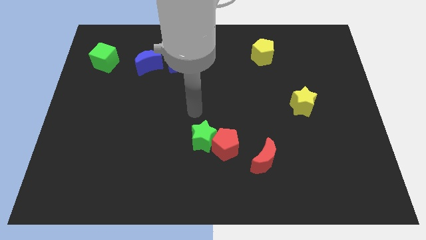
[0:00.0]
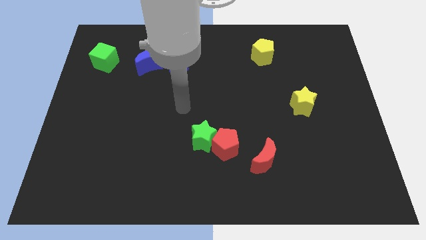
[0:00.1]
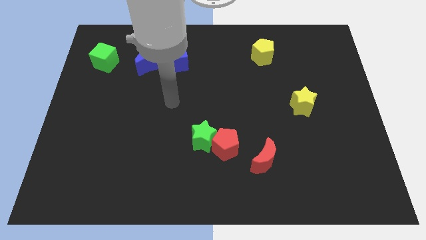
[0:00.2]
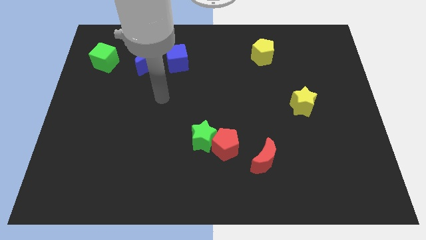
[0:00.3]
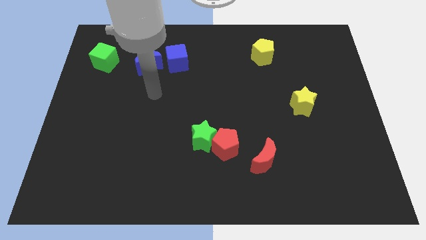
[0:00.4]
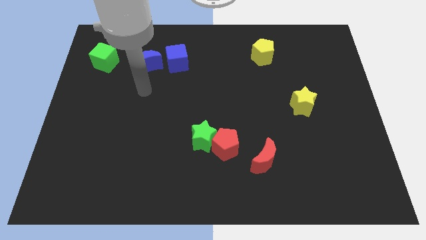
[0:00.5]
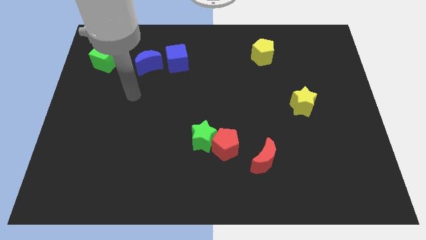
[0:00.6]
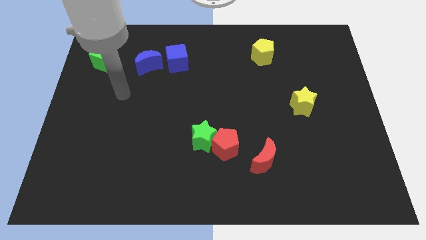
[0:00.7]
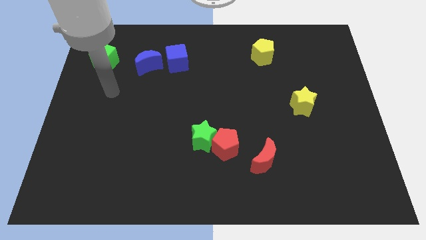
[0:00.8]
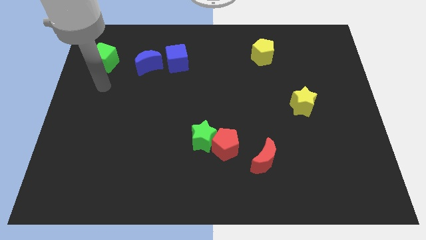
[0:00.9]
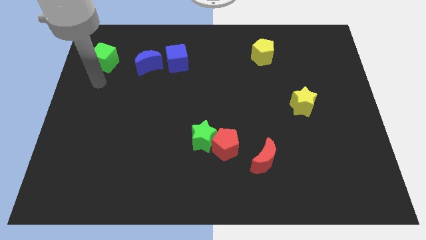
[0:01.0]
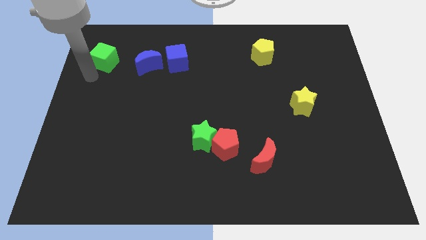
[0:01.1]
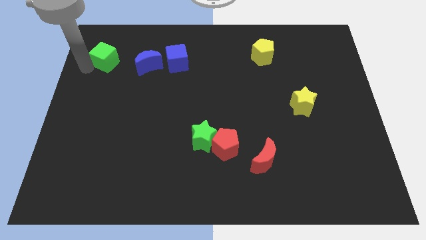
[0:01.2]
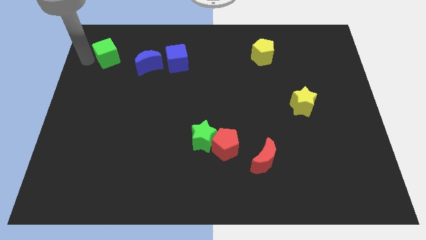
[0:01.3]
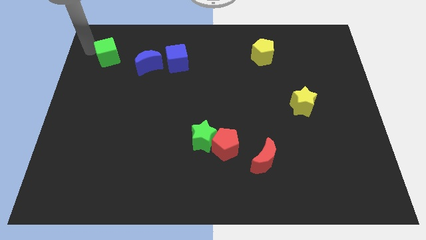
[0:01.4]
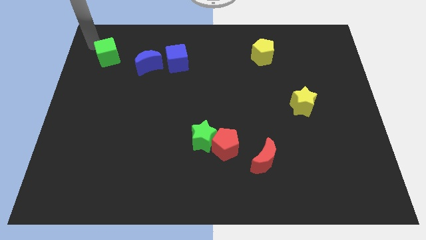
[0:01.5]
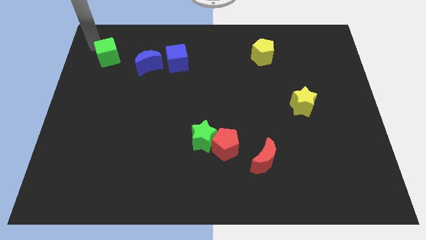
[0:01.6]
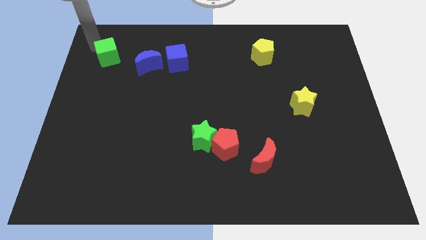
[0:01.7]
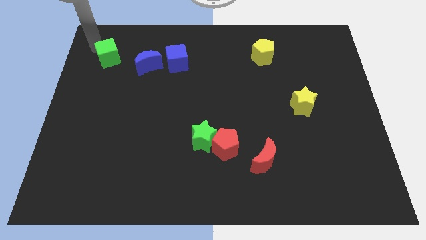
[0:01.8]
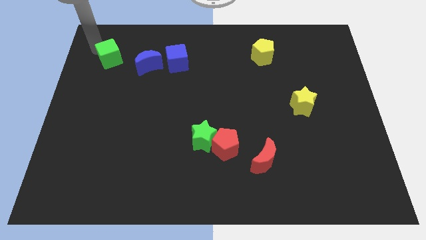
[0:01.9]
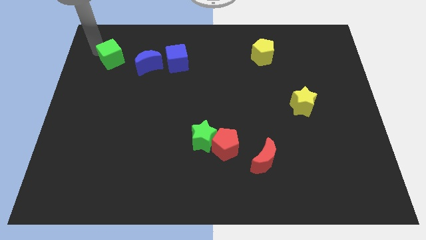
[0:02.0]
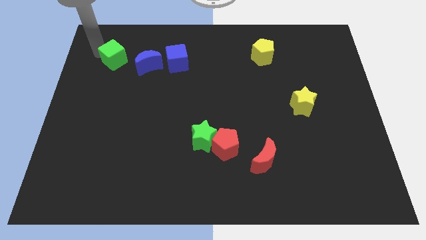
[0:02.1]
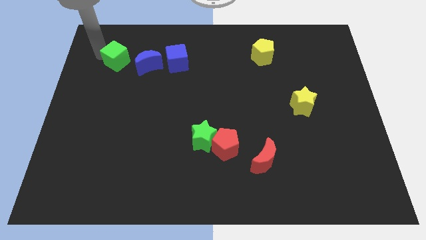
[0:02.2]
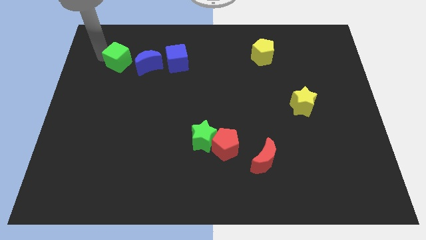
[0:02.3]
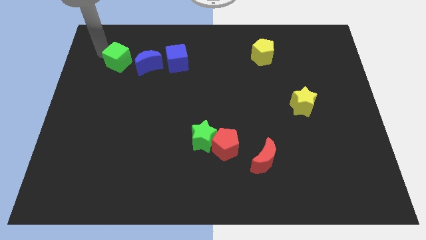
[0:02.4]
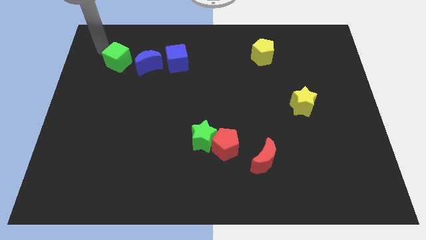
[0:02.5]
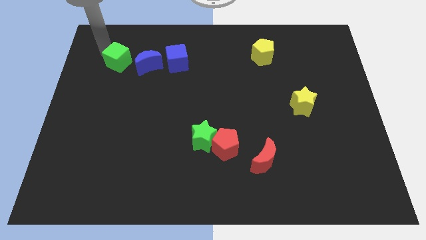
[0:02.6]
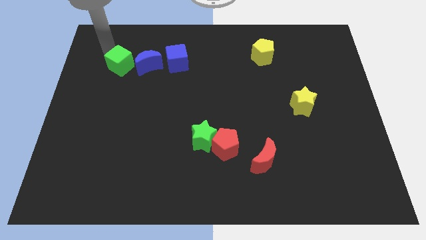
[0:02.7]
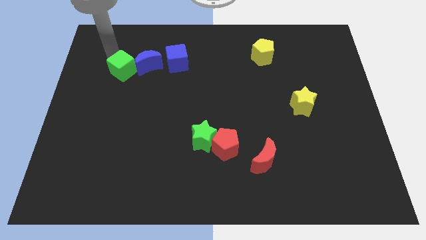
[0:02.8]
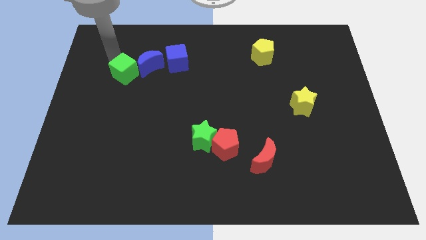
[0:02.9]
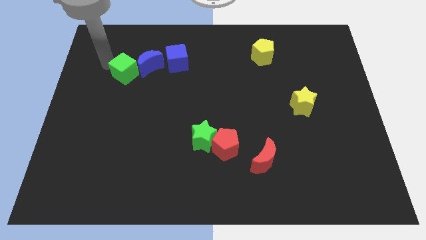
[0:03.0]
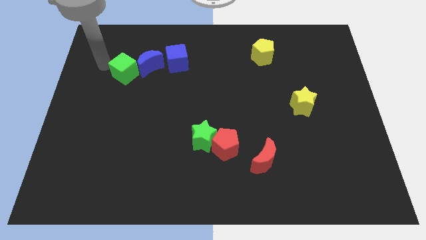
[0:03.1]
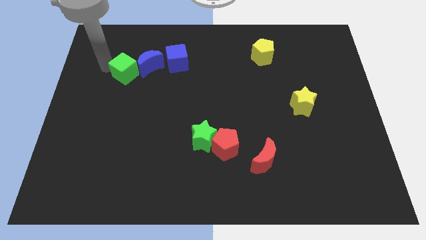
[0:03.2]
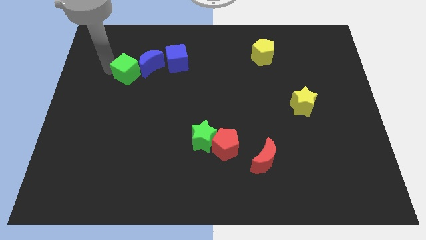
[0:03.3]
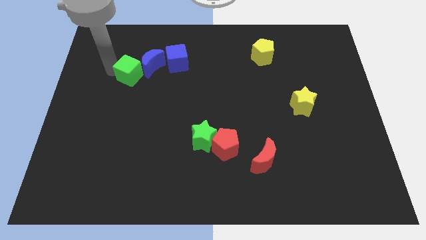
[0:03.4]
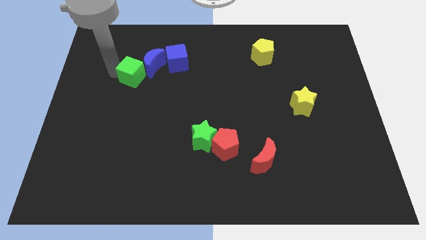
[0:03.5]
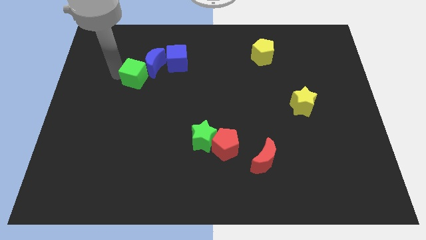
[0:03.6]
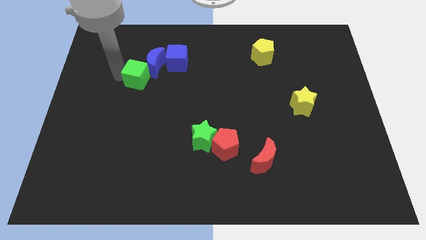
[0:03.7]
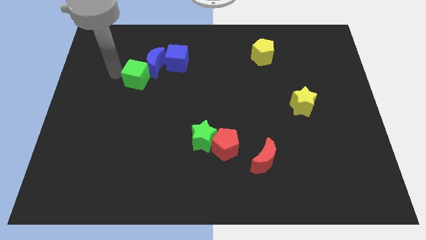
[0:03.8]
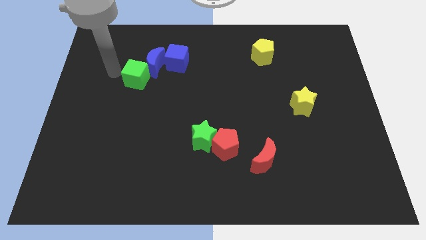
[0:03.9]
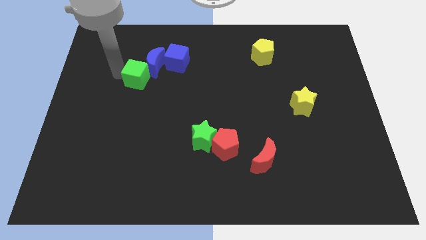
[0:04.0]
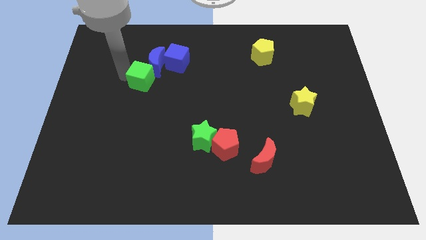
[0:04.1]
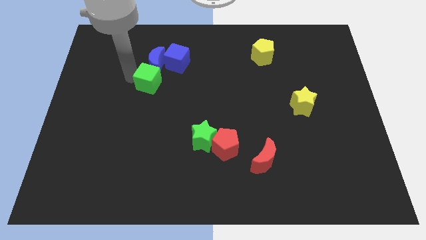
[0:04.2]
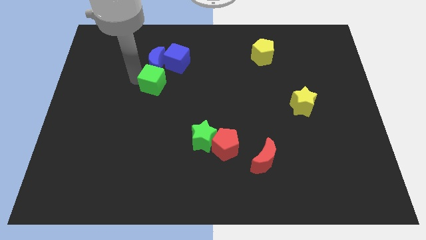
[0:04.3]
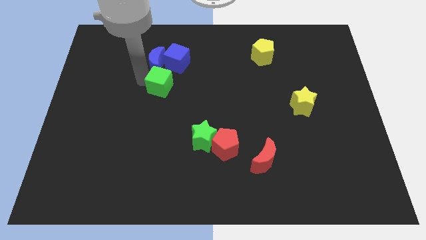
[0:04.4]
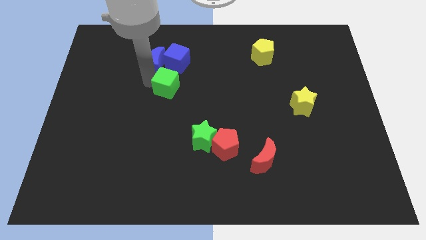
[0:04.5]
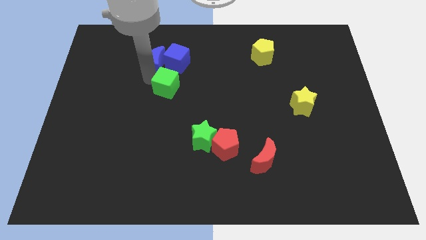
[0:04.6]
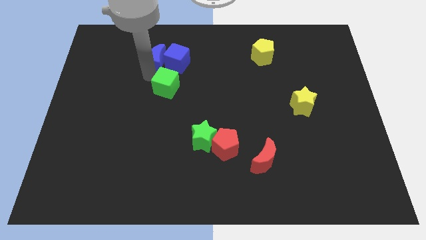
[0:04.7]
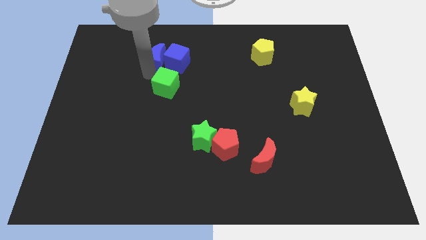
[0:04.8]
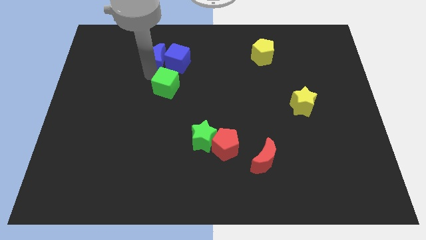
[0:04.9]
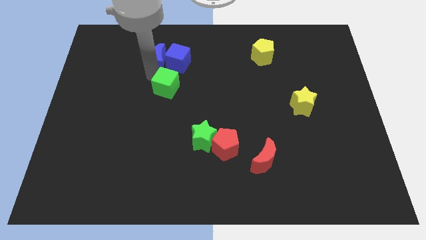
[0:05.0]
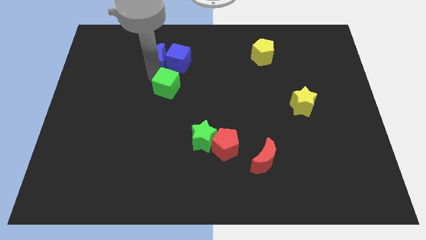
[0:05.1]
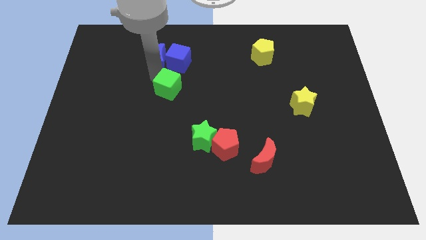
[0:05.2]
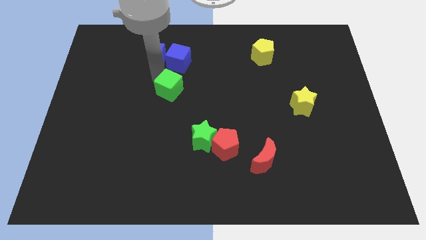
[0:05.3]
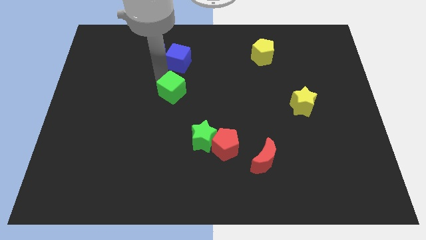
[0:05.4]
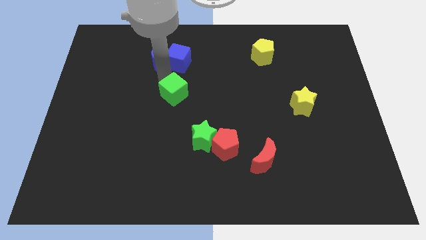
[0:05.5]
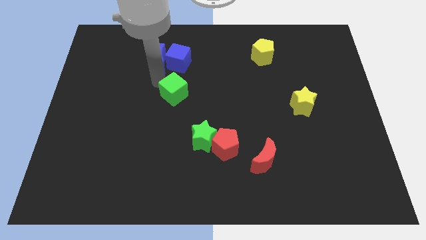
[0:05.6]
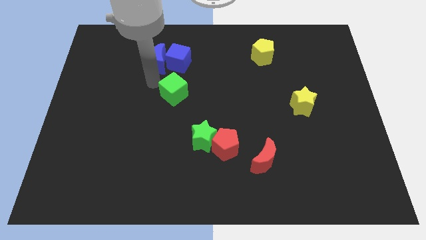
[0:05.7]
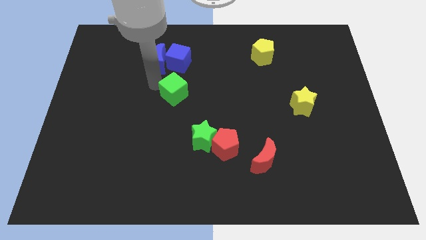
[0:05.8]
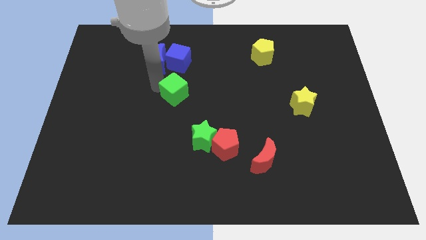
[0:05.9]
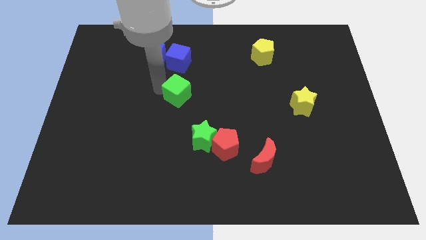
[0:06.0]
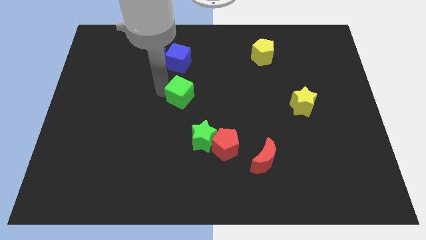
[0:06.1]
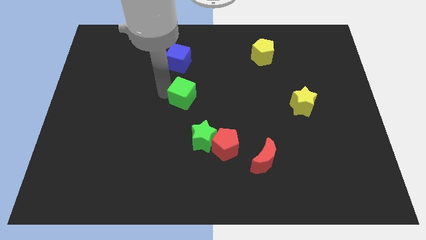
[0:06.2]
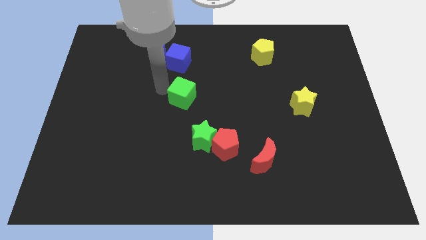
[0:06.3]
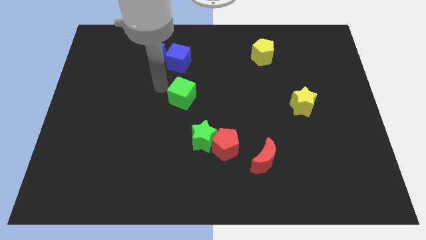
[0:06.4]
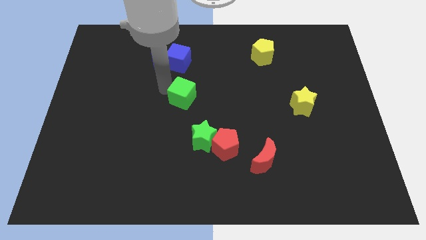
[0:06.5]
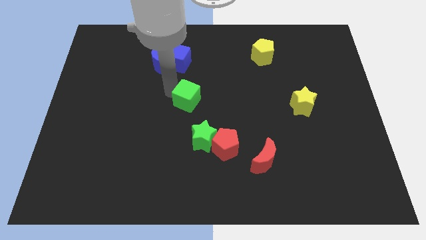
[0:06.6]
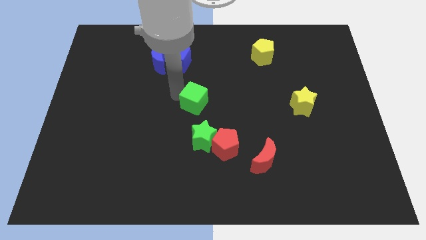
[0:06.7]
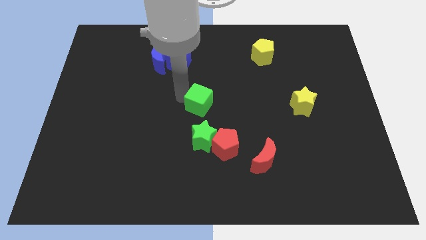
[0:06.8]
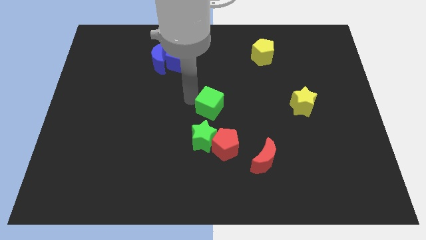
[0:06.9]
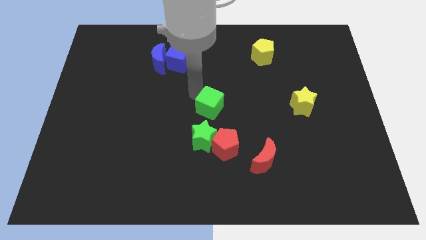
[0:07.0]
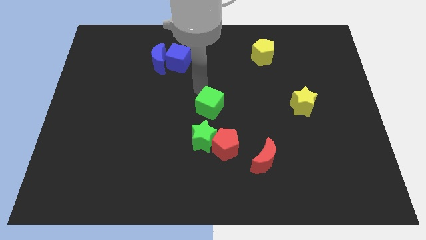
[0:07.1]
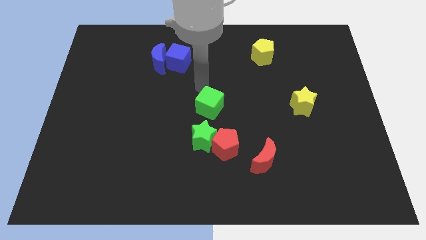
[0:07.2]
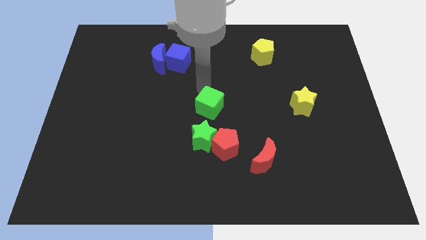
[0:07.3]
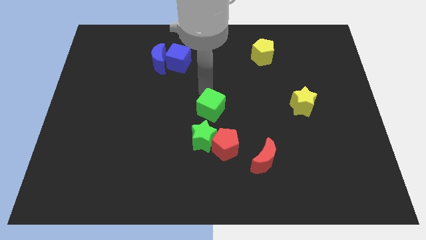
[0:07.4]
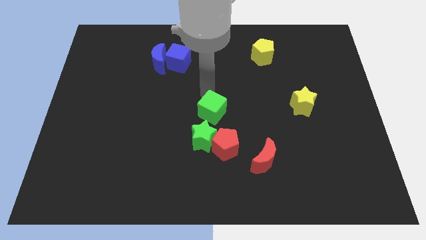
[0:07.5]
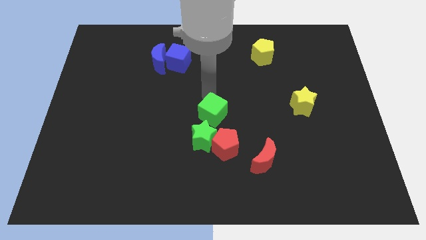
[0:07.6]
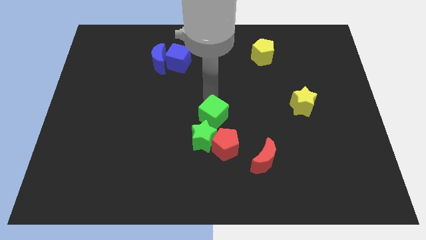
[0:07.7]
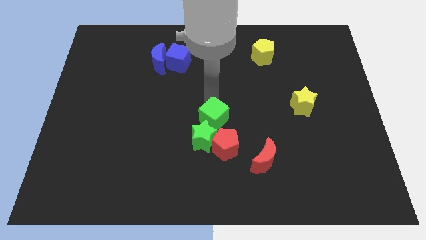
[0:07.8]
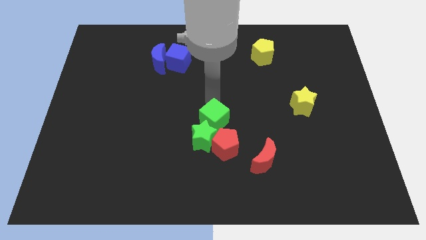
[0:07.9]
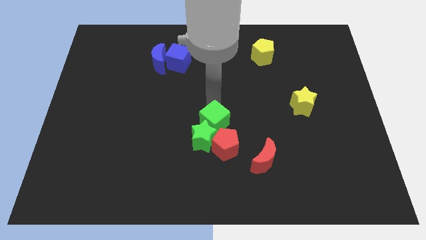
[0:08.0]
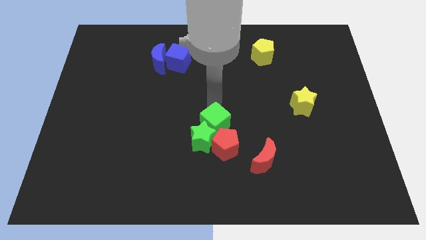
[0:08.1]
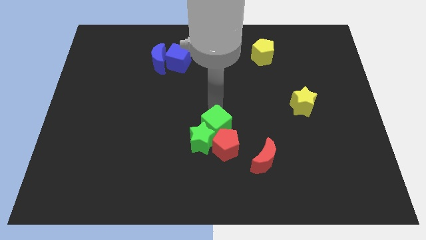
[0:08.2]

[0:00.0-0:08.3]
move the green cube towards the red pentagon
